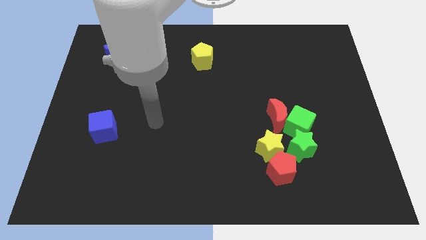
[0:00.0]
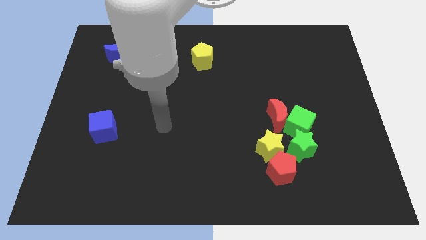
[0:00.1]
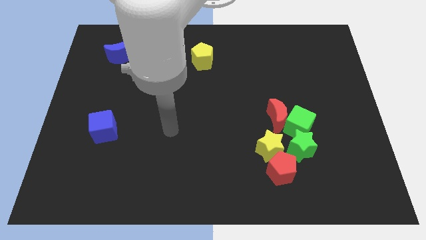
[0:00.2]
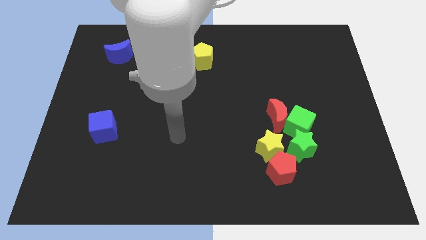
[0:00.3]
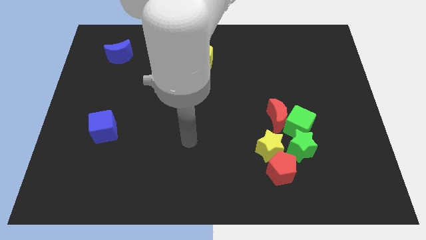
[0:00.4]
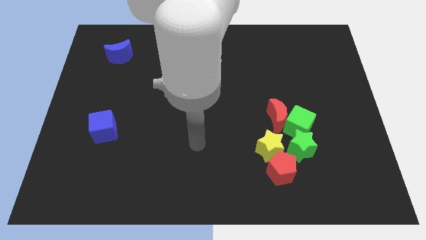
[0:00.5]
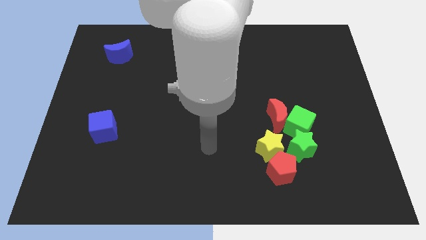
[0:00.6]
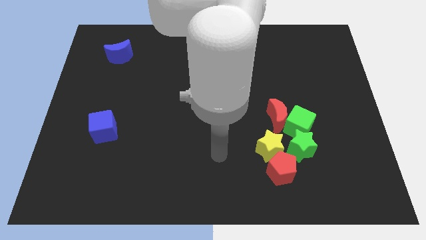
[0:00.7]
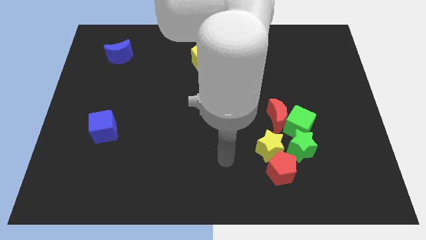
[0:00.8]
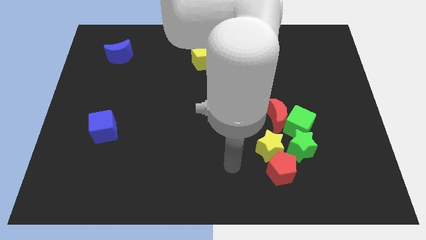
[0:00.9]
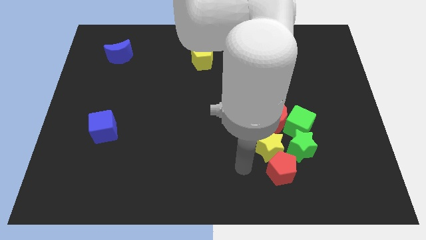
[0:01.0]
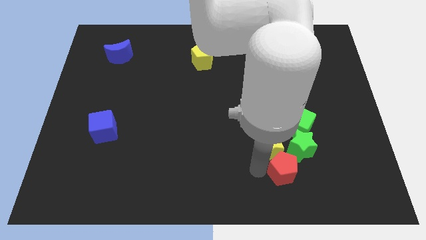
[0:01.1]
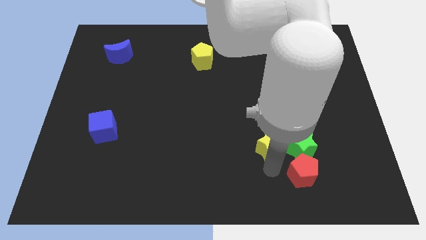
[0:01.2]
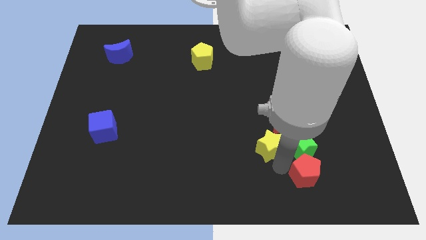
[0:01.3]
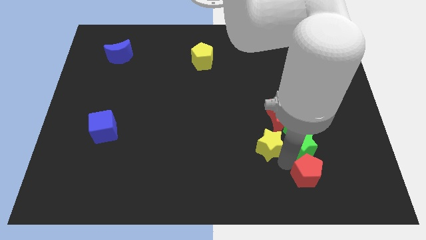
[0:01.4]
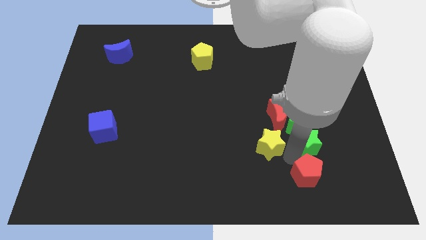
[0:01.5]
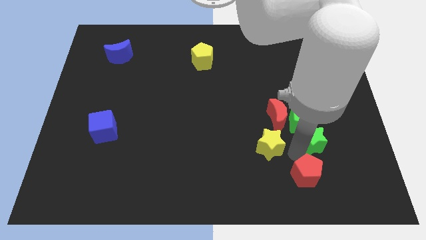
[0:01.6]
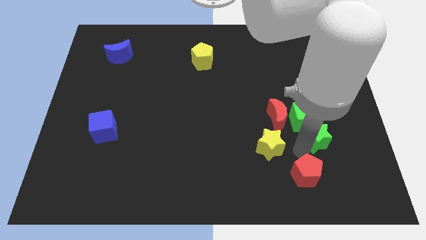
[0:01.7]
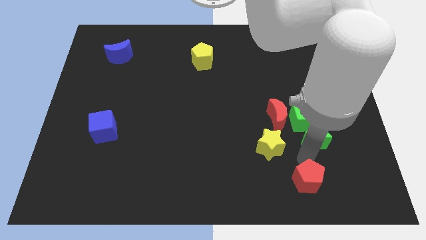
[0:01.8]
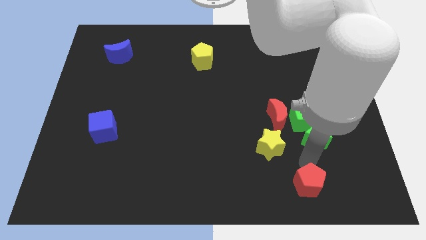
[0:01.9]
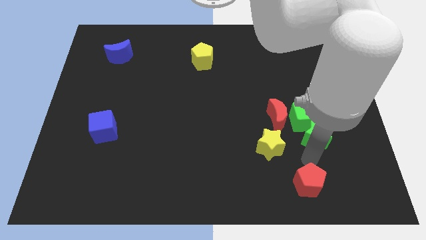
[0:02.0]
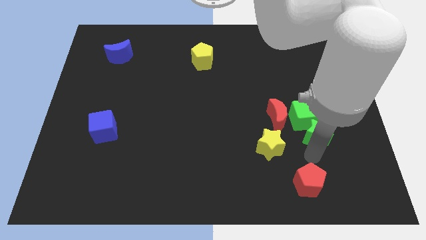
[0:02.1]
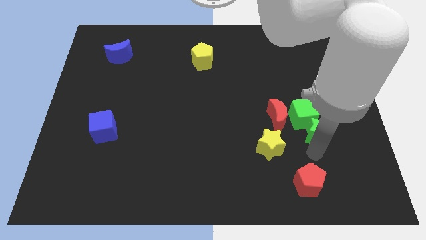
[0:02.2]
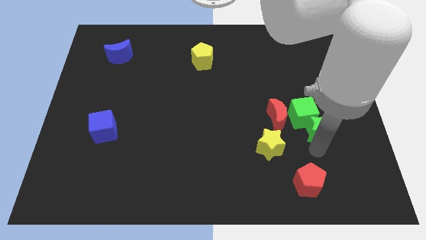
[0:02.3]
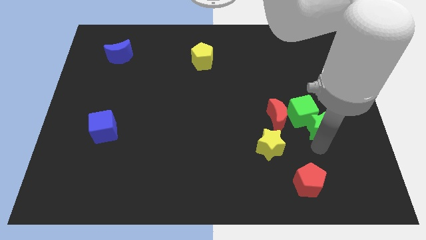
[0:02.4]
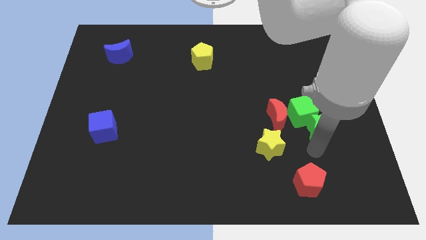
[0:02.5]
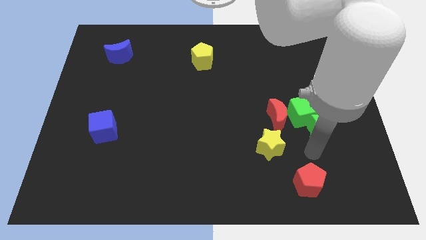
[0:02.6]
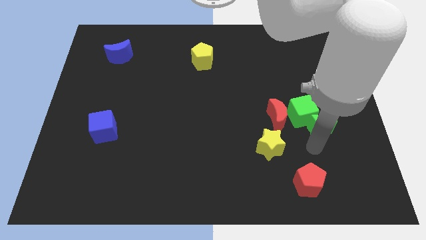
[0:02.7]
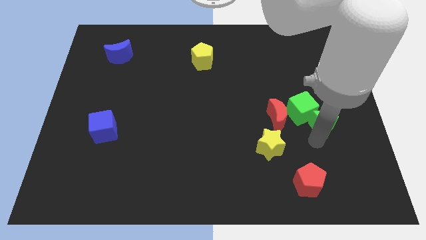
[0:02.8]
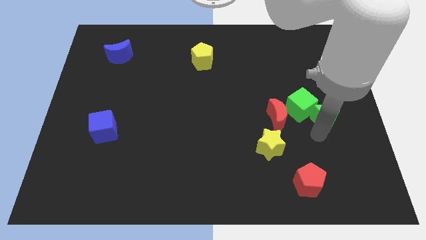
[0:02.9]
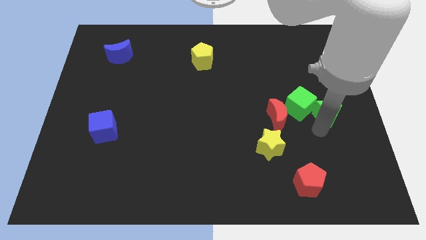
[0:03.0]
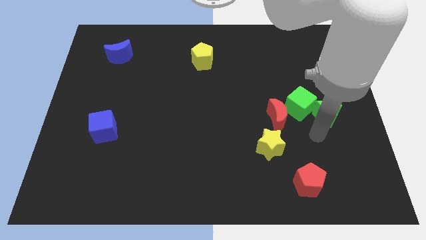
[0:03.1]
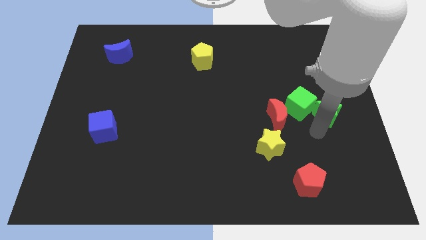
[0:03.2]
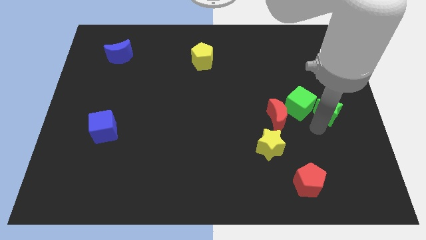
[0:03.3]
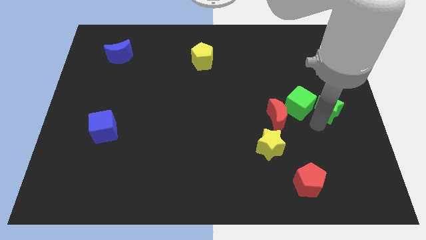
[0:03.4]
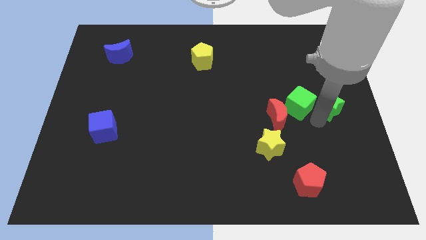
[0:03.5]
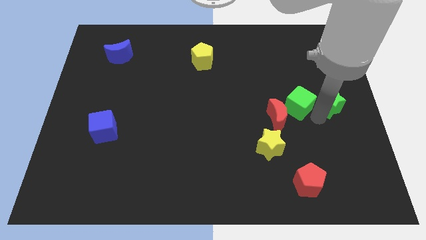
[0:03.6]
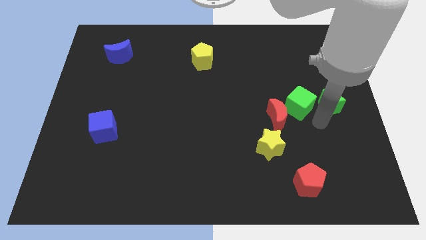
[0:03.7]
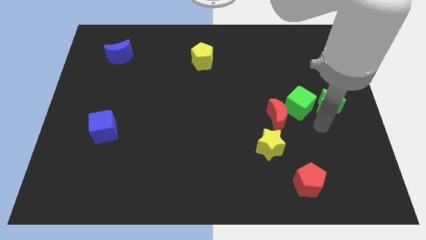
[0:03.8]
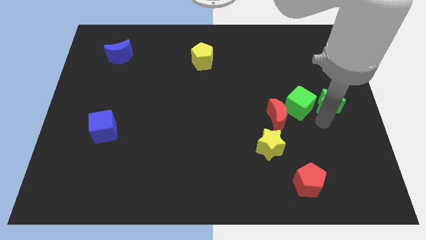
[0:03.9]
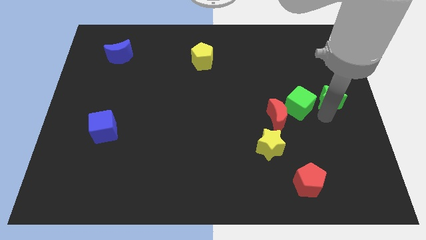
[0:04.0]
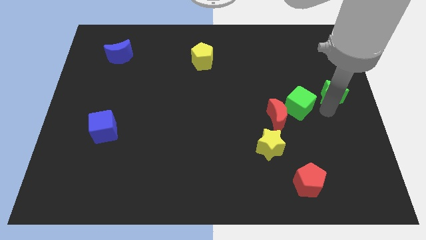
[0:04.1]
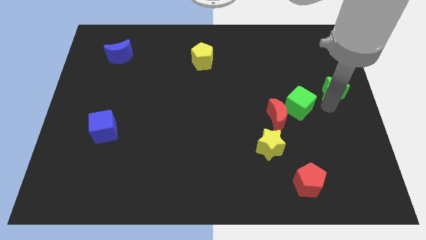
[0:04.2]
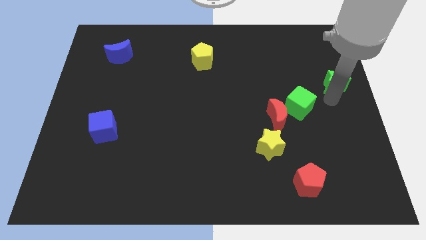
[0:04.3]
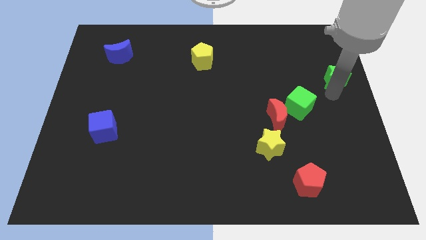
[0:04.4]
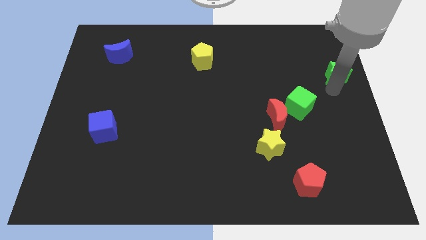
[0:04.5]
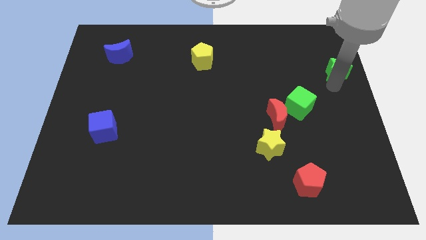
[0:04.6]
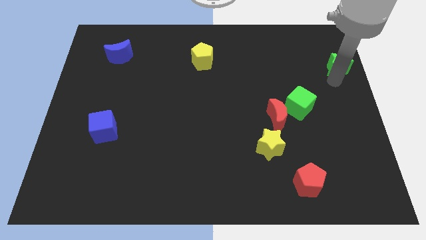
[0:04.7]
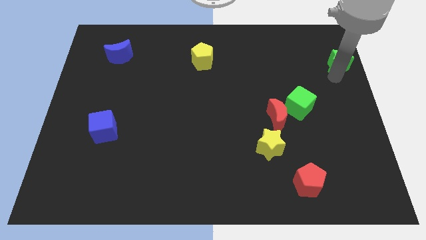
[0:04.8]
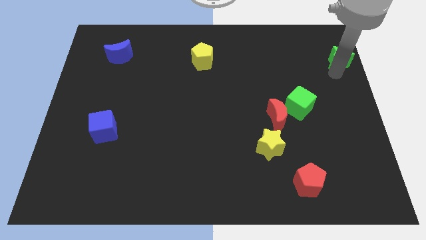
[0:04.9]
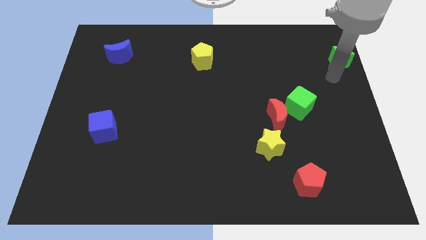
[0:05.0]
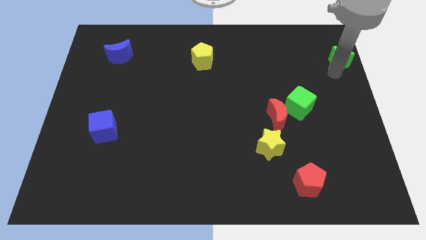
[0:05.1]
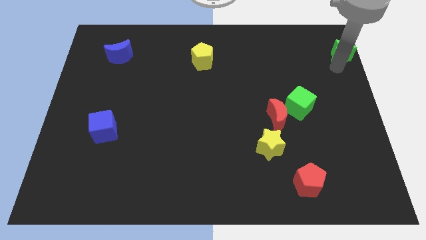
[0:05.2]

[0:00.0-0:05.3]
push the green star to the upper right corner

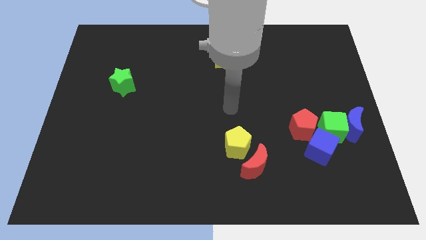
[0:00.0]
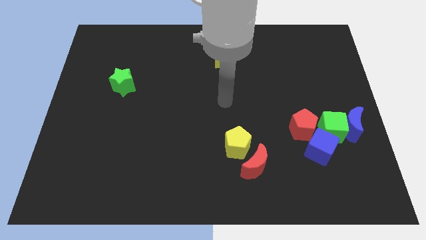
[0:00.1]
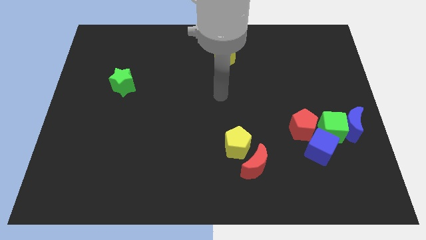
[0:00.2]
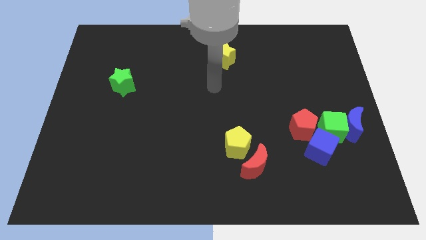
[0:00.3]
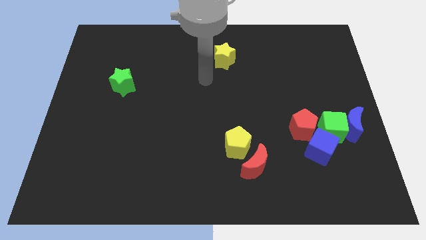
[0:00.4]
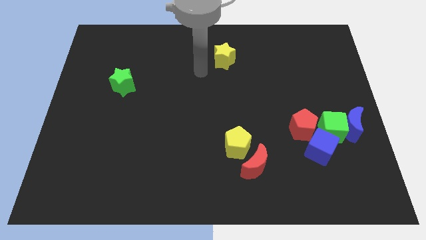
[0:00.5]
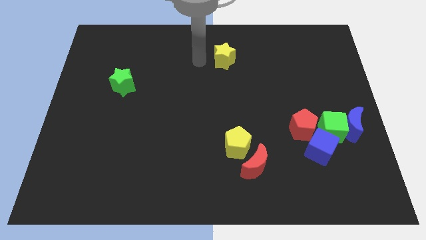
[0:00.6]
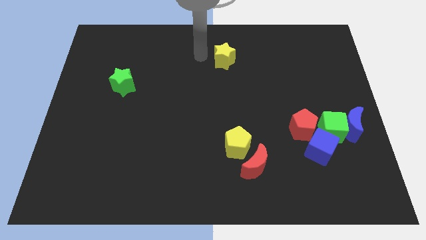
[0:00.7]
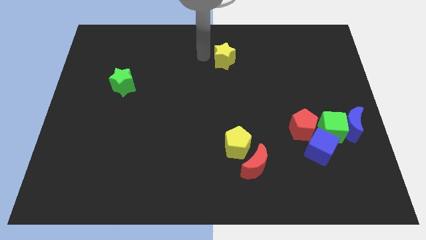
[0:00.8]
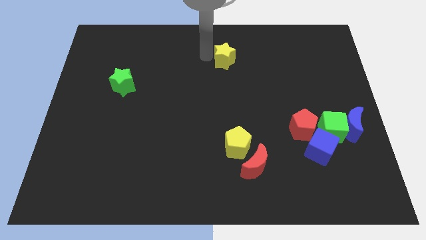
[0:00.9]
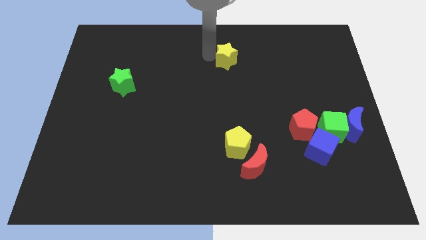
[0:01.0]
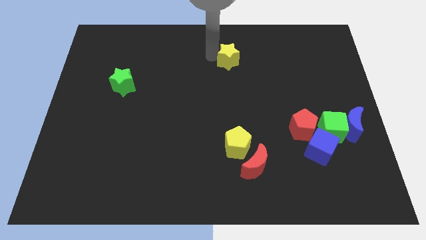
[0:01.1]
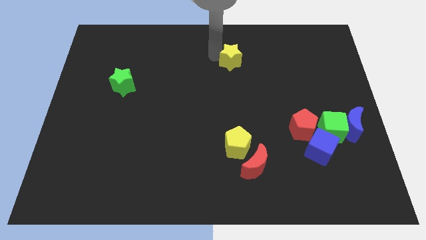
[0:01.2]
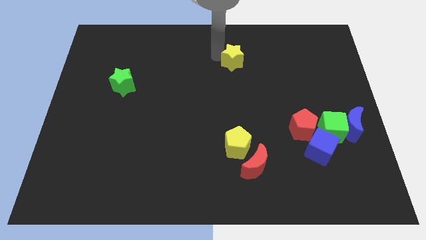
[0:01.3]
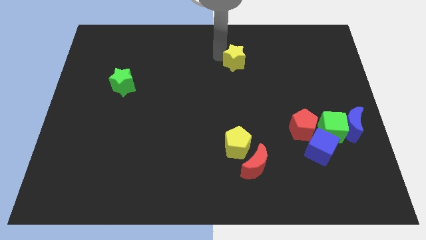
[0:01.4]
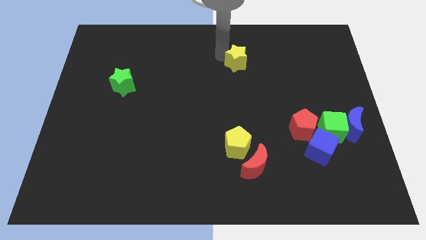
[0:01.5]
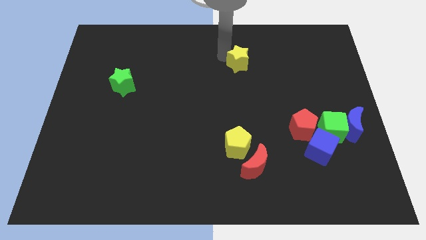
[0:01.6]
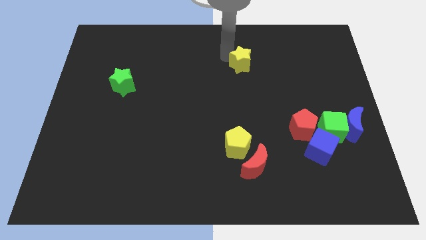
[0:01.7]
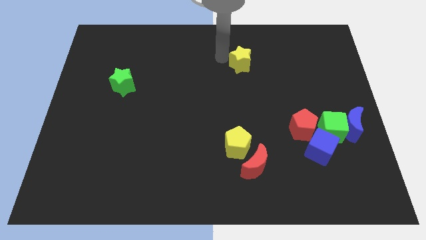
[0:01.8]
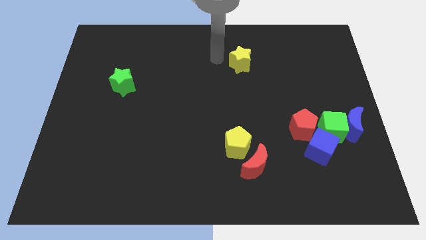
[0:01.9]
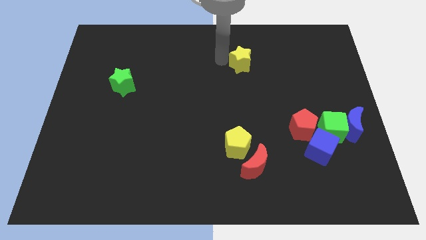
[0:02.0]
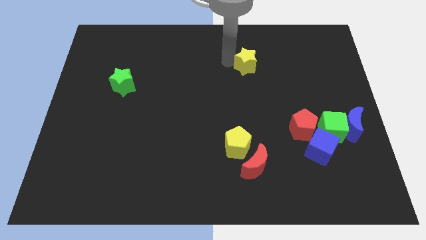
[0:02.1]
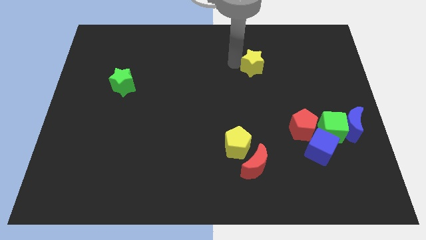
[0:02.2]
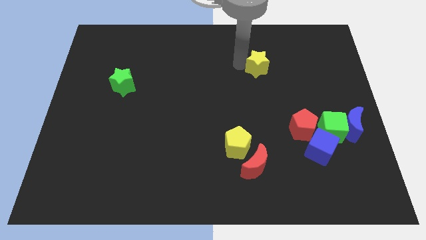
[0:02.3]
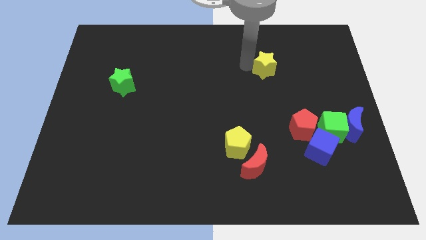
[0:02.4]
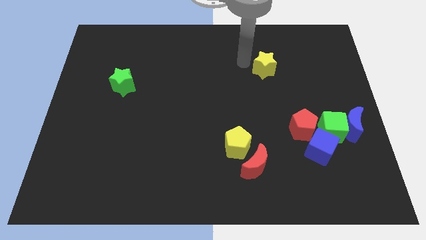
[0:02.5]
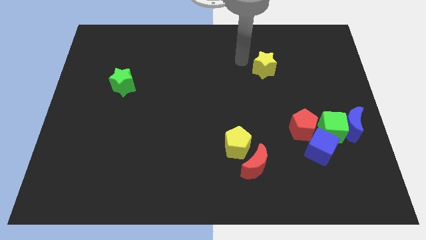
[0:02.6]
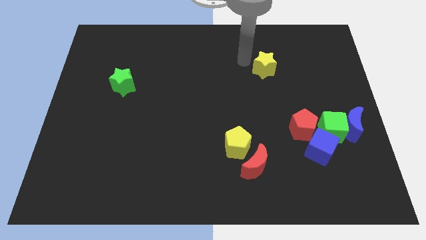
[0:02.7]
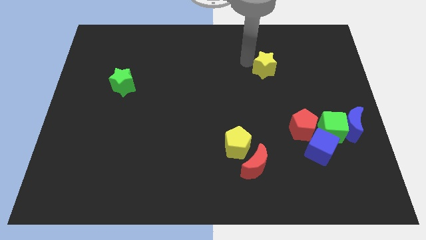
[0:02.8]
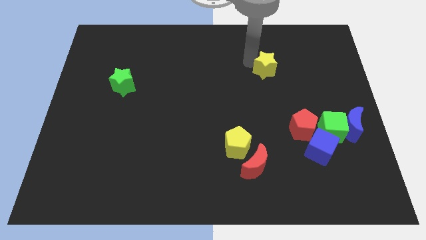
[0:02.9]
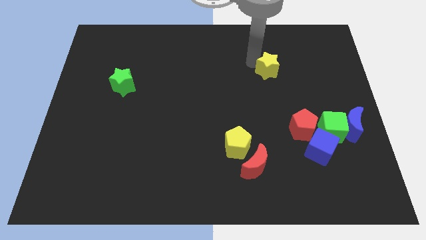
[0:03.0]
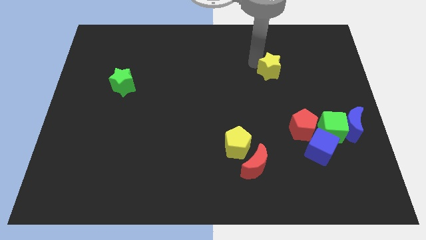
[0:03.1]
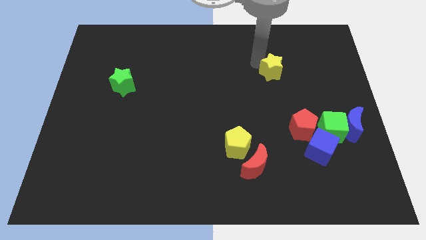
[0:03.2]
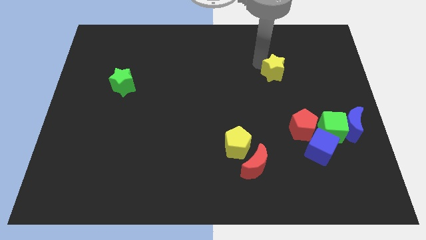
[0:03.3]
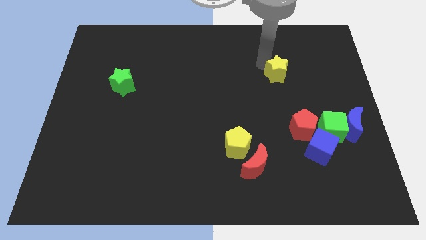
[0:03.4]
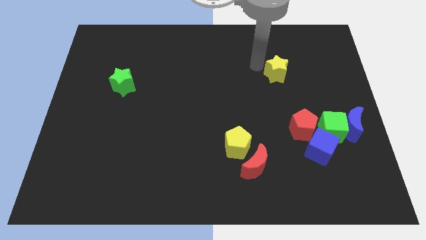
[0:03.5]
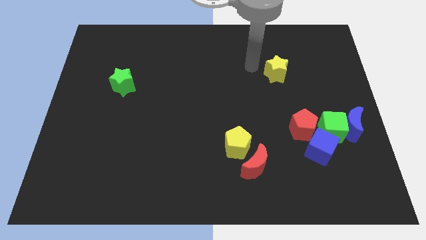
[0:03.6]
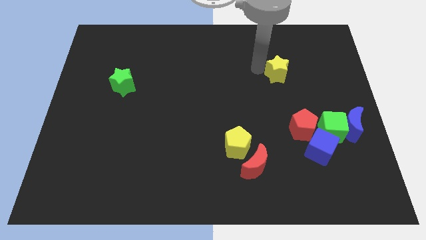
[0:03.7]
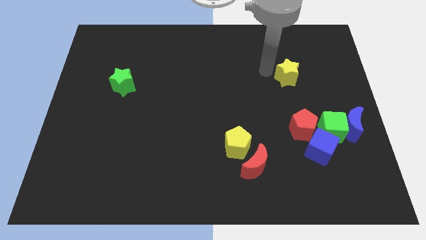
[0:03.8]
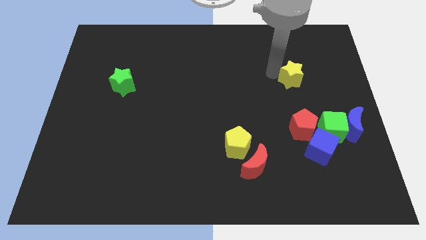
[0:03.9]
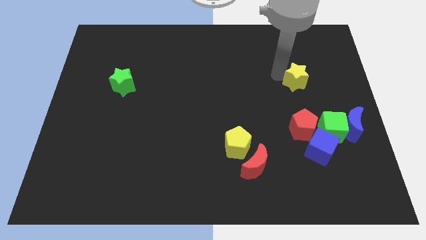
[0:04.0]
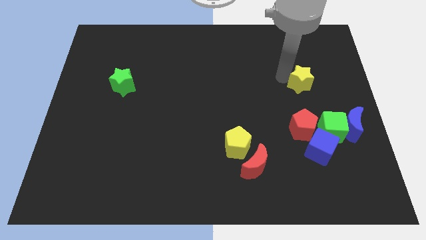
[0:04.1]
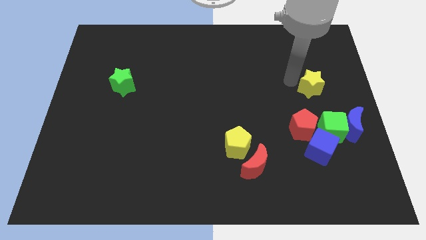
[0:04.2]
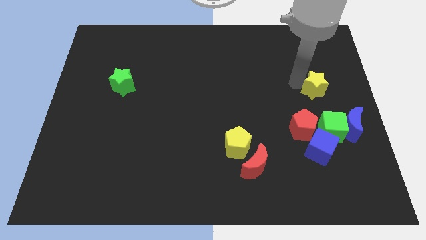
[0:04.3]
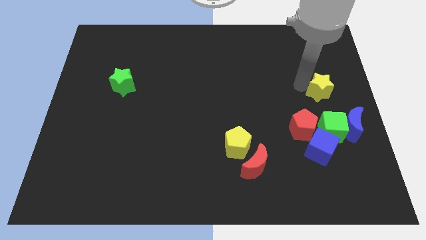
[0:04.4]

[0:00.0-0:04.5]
push the yellow star to the right side of the board
